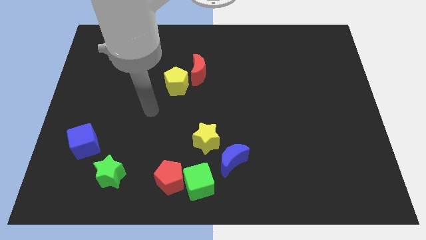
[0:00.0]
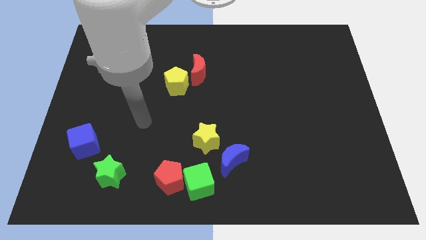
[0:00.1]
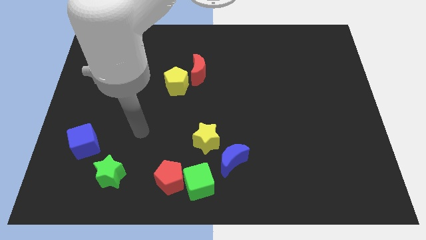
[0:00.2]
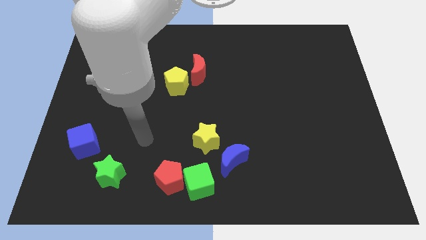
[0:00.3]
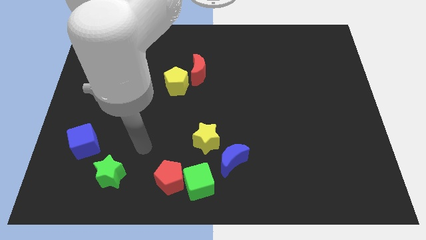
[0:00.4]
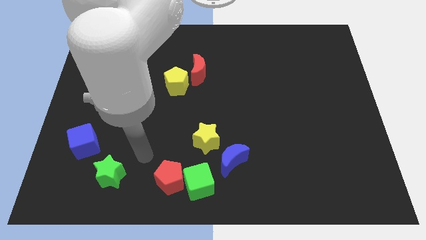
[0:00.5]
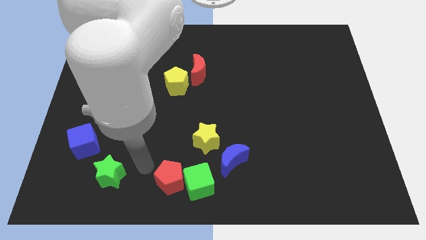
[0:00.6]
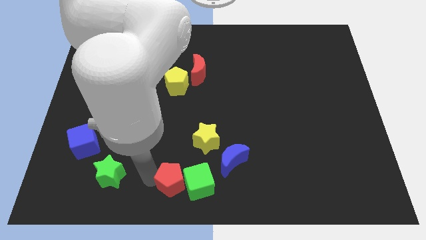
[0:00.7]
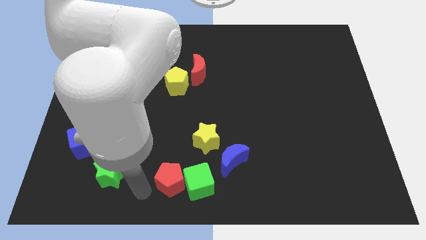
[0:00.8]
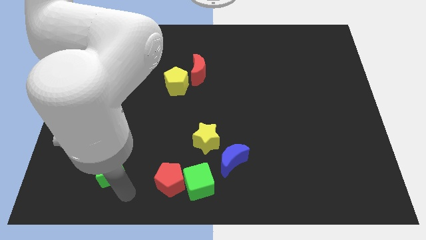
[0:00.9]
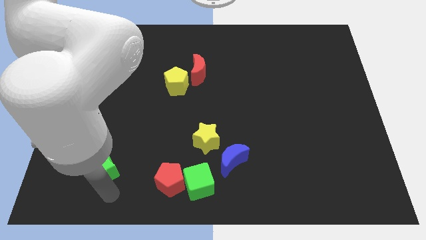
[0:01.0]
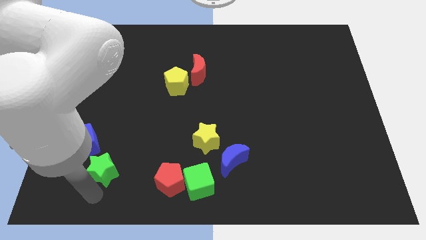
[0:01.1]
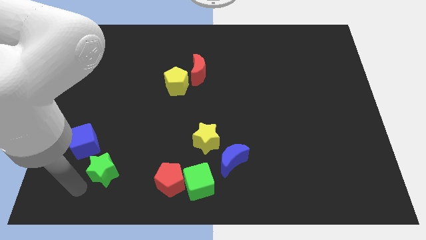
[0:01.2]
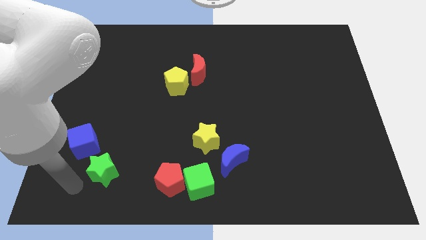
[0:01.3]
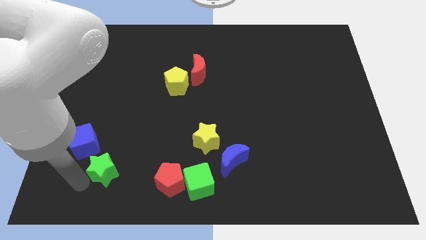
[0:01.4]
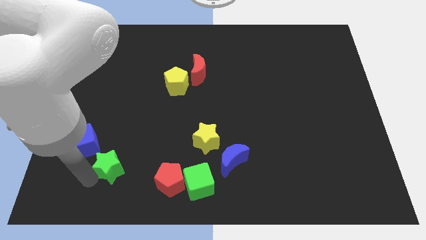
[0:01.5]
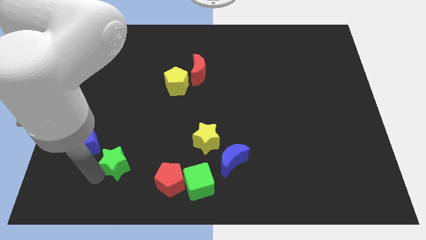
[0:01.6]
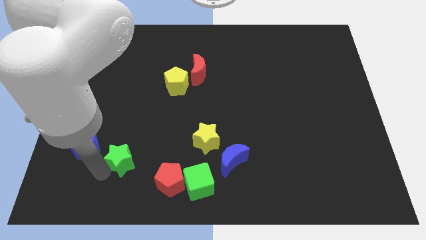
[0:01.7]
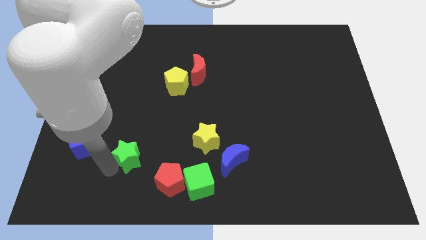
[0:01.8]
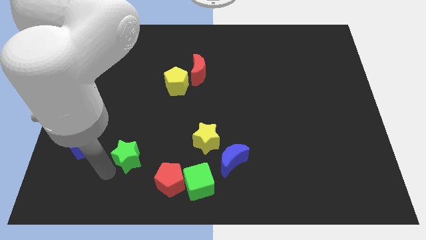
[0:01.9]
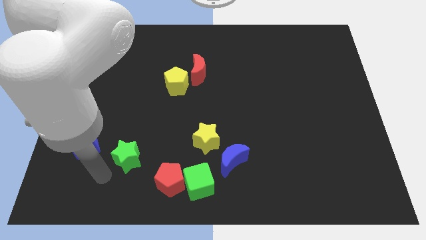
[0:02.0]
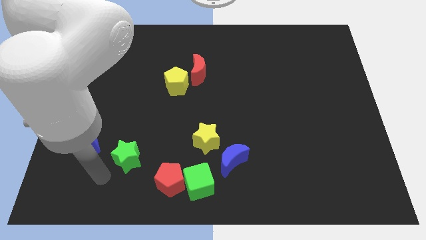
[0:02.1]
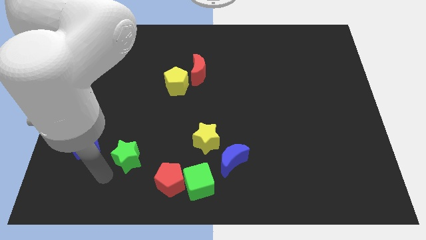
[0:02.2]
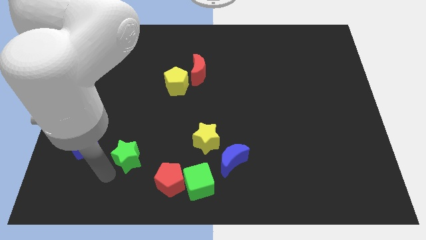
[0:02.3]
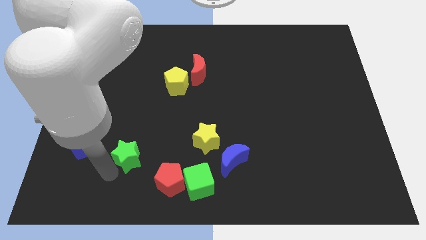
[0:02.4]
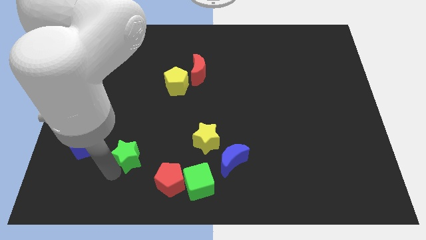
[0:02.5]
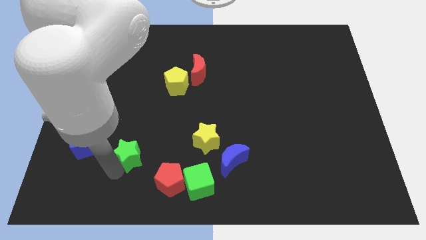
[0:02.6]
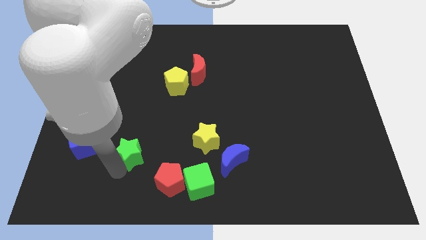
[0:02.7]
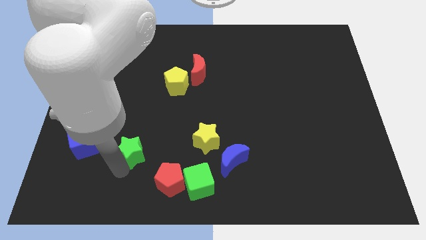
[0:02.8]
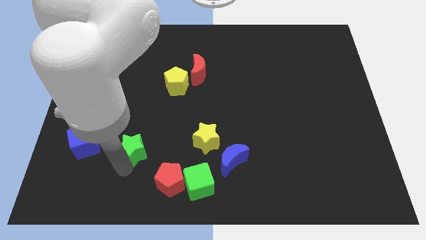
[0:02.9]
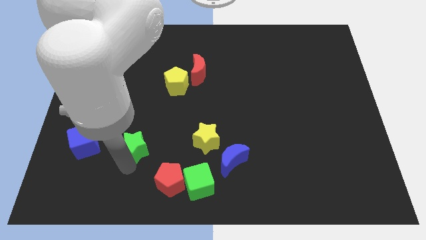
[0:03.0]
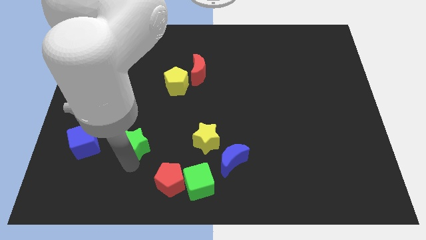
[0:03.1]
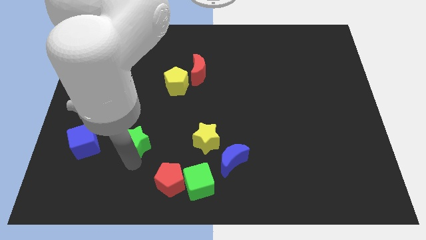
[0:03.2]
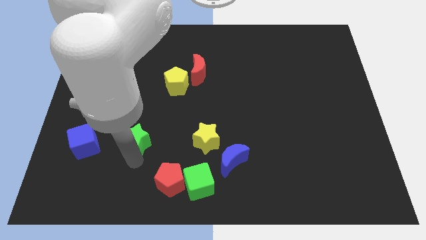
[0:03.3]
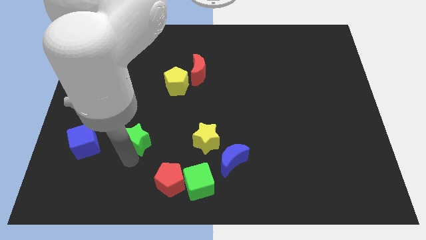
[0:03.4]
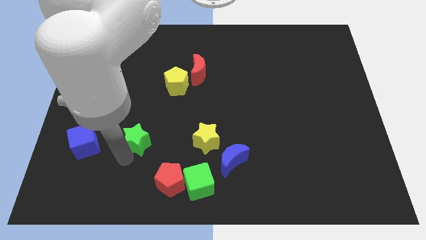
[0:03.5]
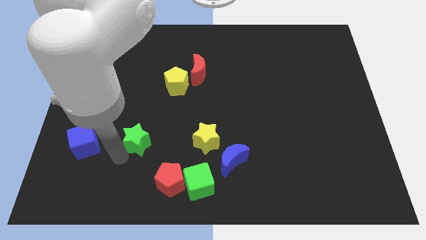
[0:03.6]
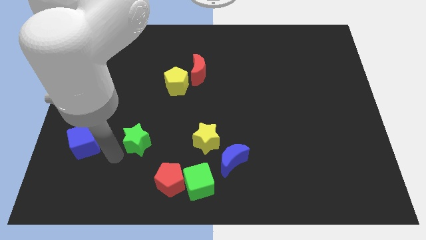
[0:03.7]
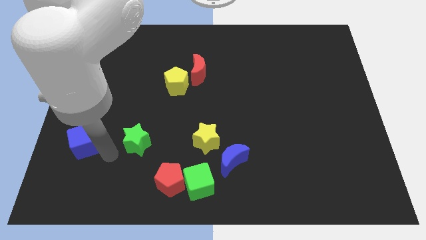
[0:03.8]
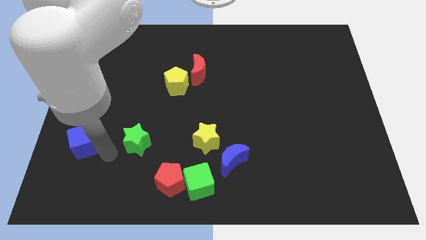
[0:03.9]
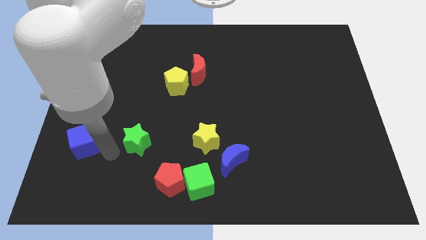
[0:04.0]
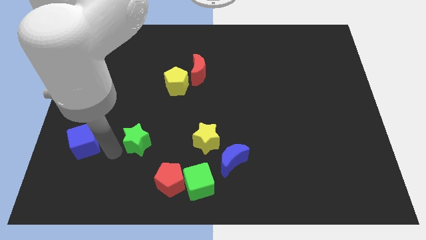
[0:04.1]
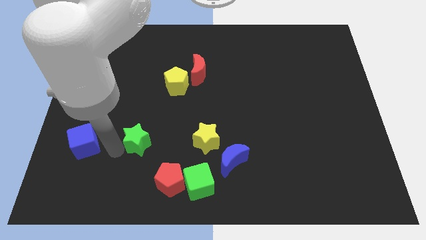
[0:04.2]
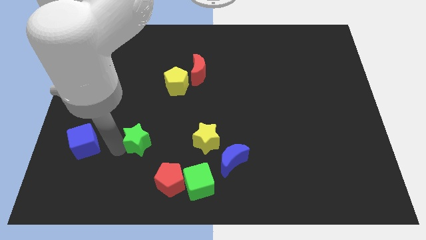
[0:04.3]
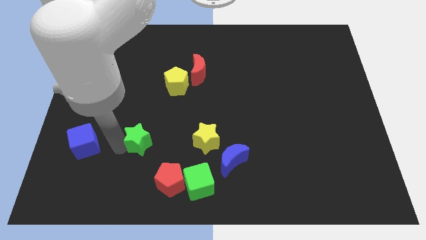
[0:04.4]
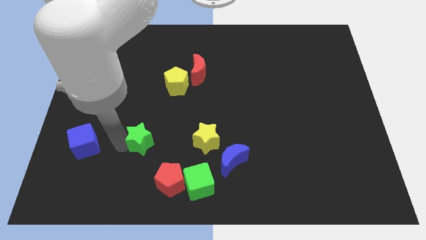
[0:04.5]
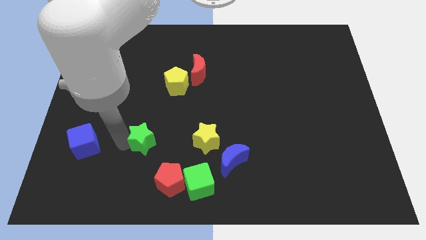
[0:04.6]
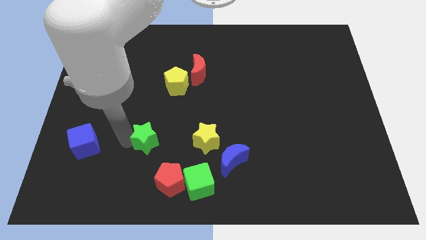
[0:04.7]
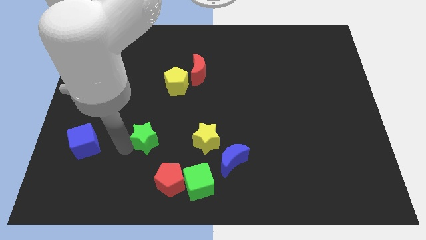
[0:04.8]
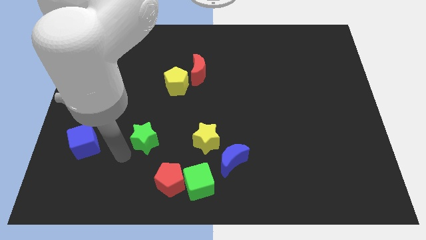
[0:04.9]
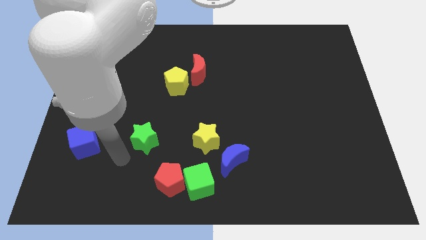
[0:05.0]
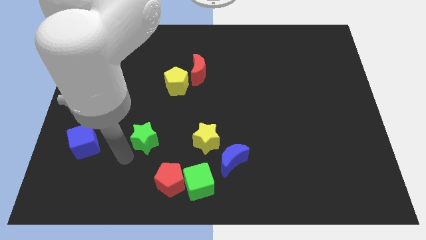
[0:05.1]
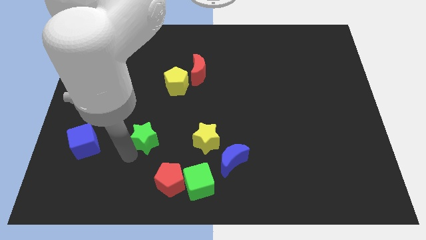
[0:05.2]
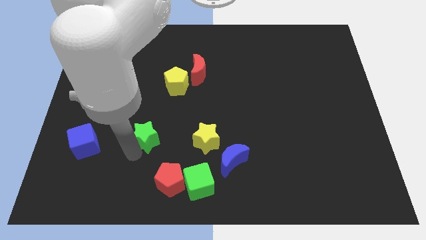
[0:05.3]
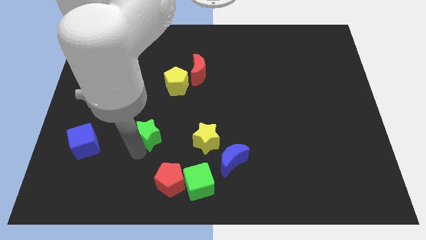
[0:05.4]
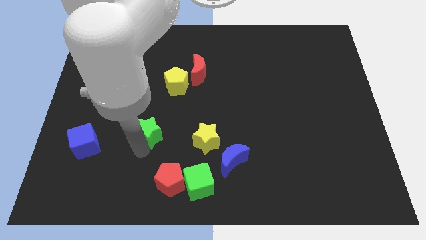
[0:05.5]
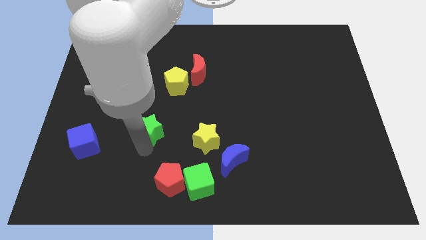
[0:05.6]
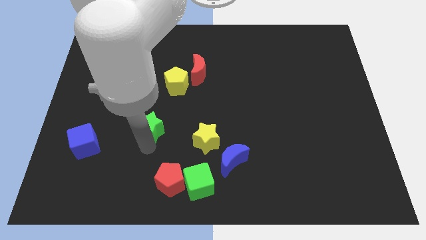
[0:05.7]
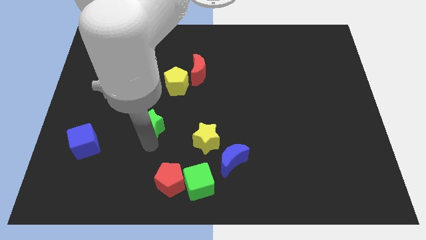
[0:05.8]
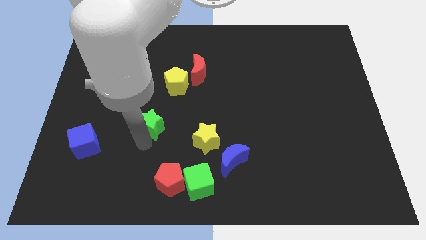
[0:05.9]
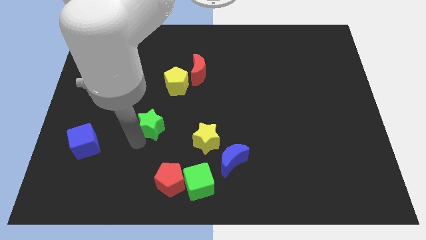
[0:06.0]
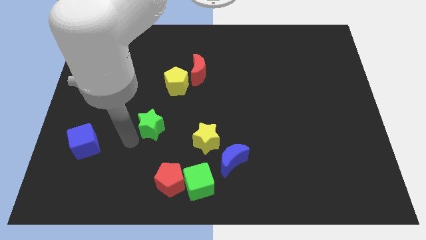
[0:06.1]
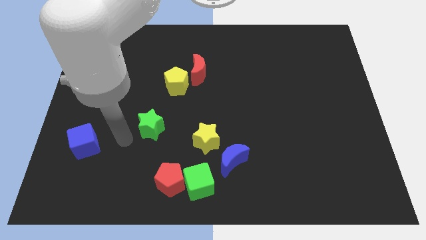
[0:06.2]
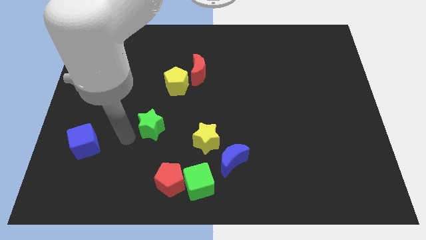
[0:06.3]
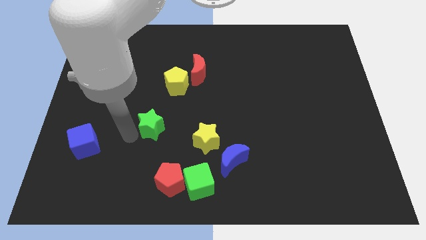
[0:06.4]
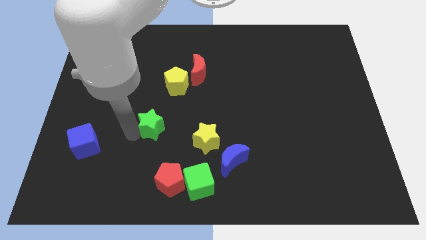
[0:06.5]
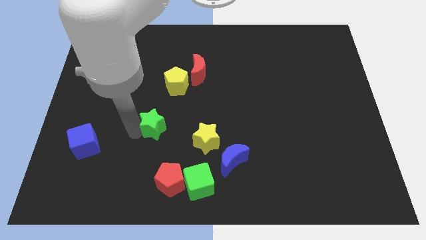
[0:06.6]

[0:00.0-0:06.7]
move the green star to the bottom of the yellow pentagon

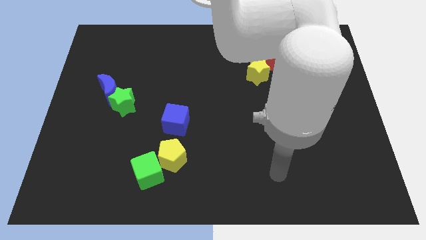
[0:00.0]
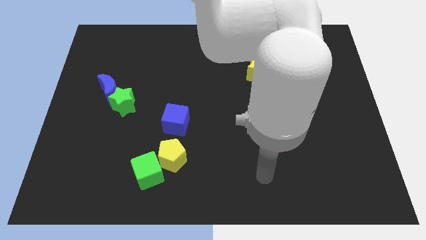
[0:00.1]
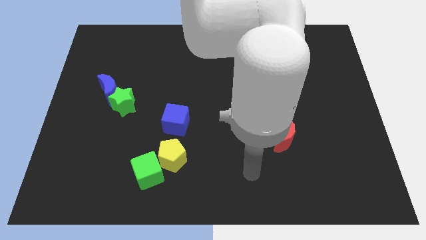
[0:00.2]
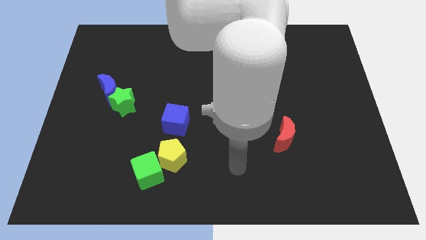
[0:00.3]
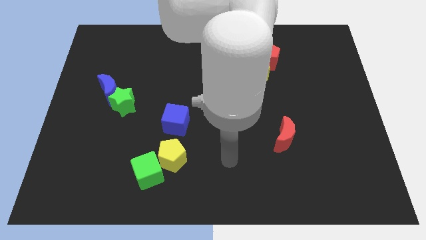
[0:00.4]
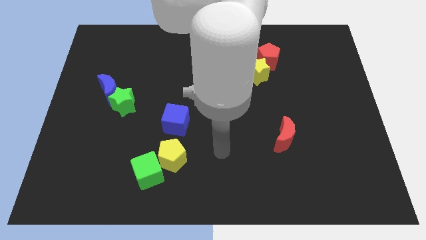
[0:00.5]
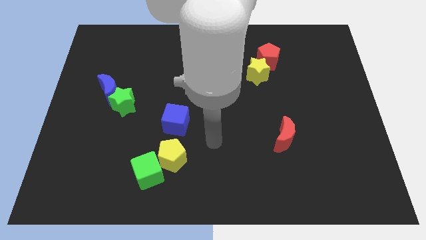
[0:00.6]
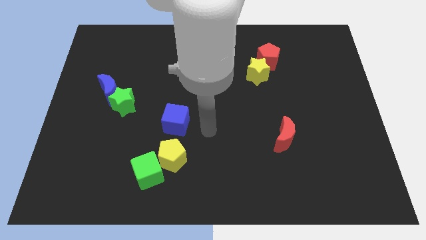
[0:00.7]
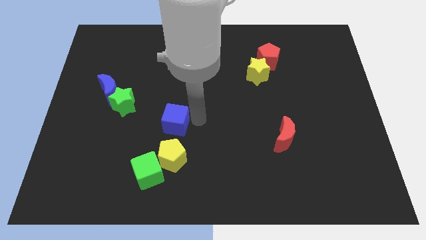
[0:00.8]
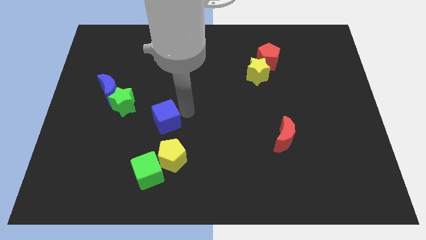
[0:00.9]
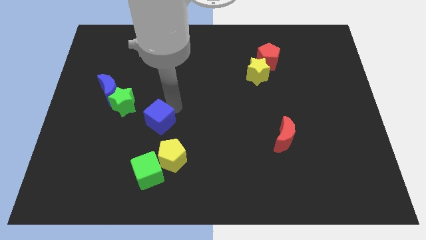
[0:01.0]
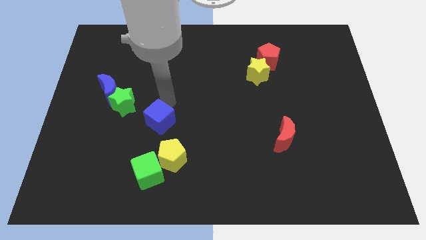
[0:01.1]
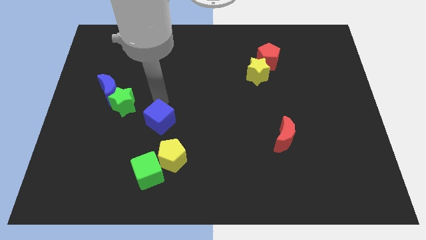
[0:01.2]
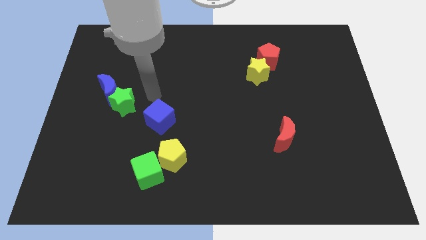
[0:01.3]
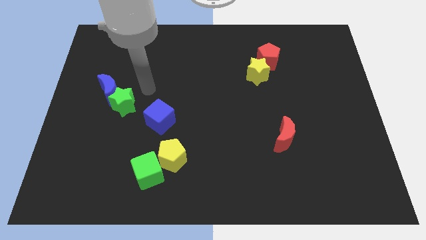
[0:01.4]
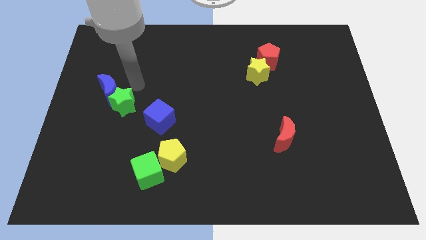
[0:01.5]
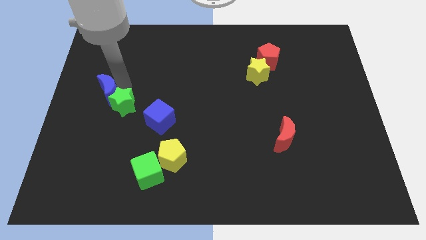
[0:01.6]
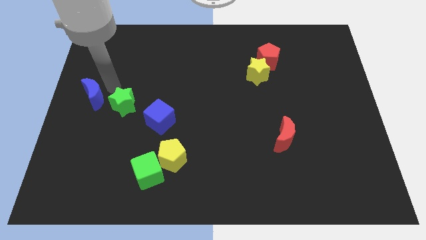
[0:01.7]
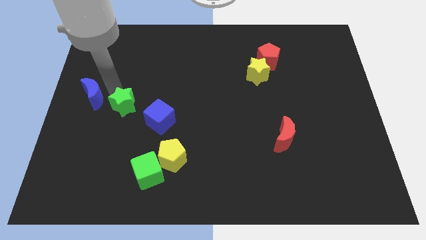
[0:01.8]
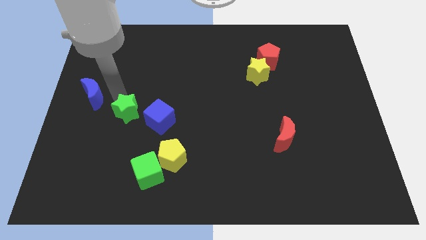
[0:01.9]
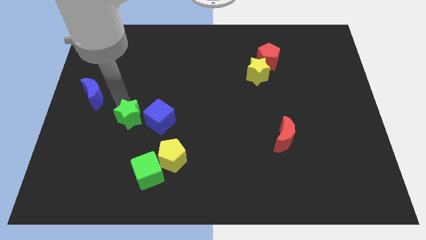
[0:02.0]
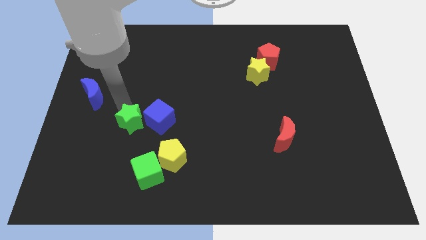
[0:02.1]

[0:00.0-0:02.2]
push the green star to the bottom left of the blue cube
